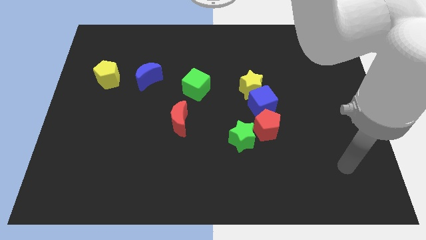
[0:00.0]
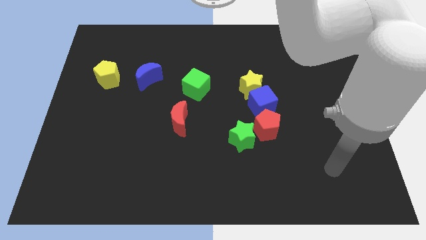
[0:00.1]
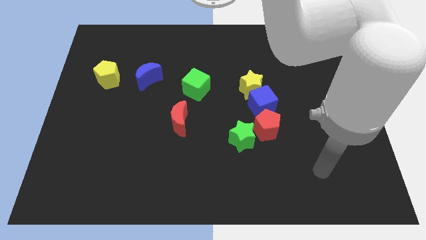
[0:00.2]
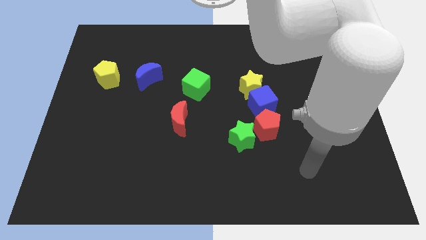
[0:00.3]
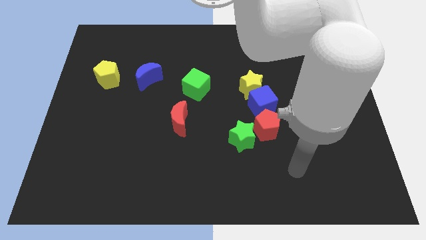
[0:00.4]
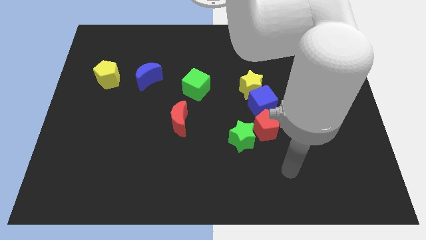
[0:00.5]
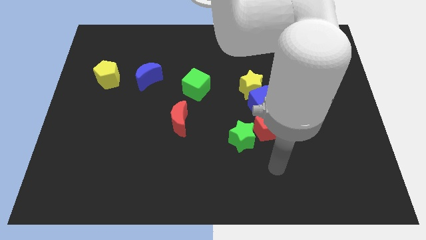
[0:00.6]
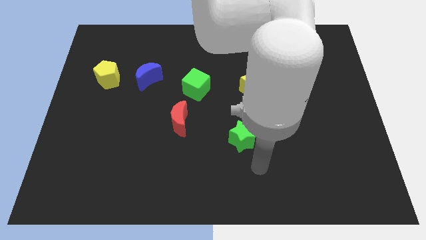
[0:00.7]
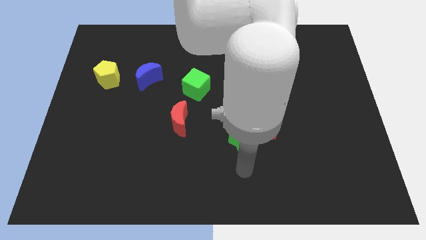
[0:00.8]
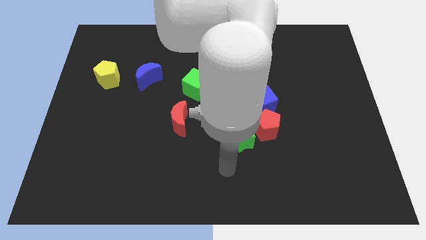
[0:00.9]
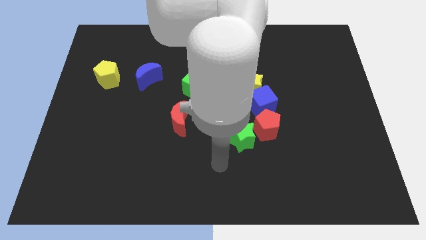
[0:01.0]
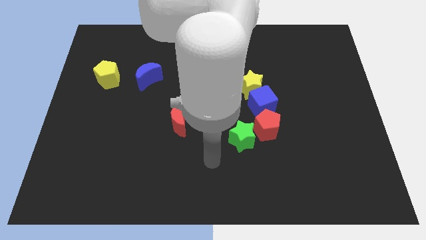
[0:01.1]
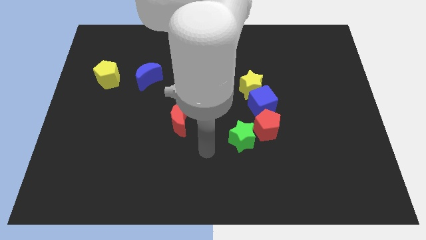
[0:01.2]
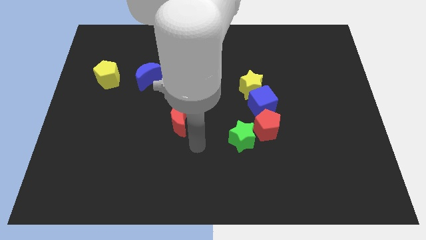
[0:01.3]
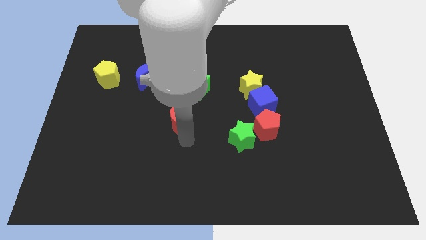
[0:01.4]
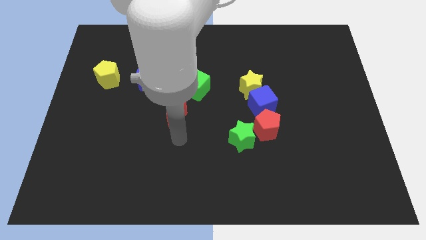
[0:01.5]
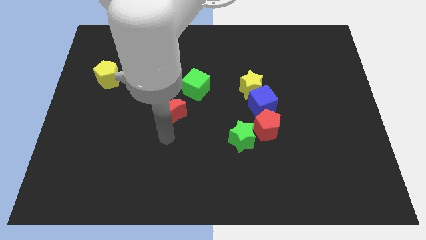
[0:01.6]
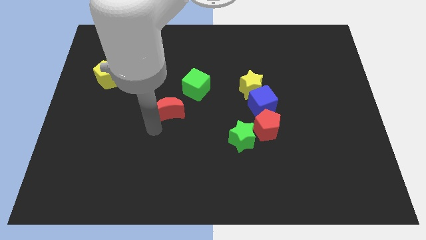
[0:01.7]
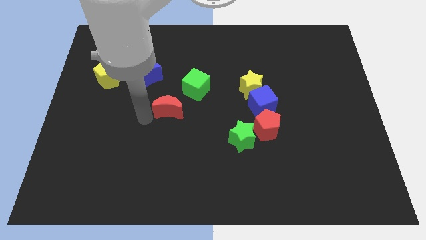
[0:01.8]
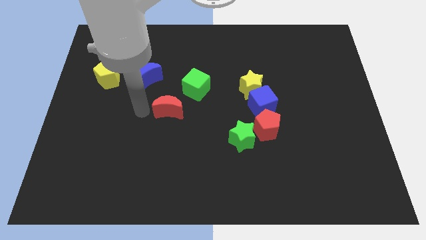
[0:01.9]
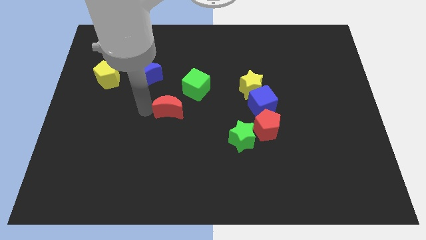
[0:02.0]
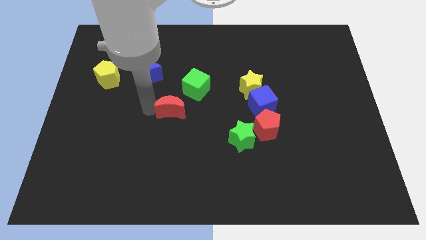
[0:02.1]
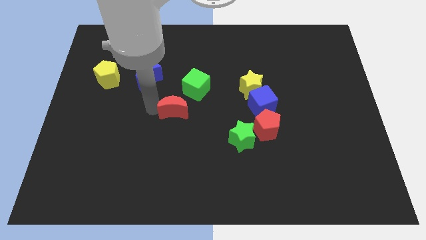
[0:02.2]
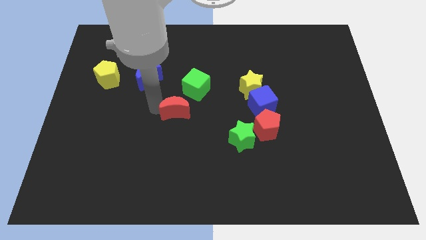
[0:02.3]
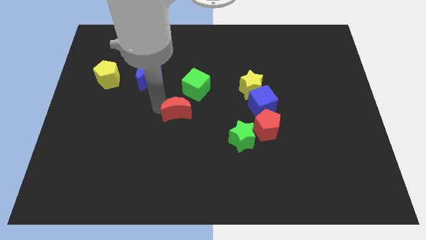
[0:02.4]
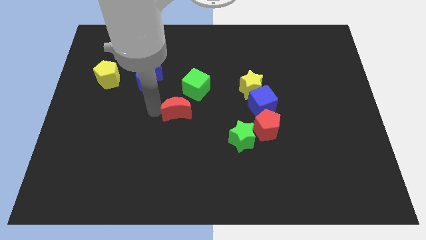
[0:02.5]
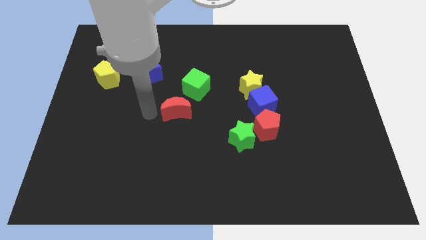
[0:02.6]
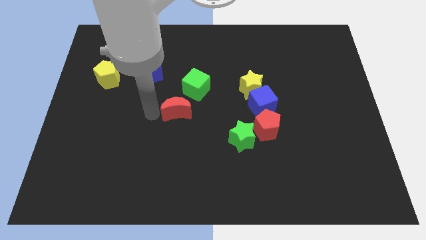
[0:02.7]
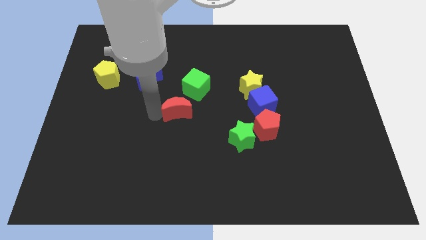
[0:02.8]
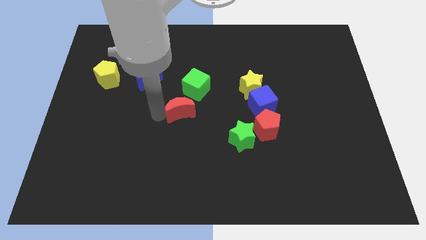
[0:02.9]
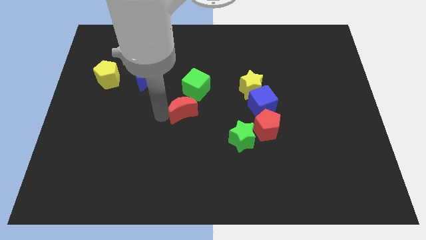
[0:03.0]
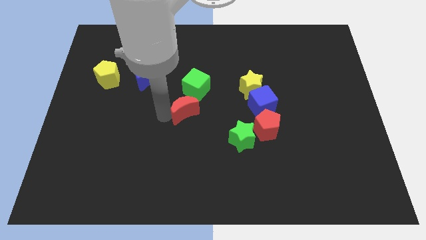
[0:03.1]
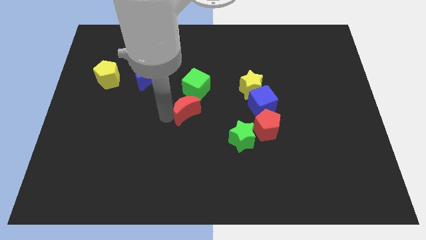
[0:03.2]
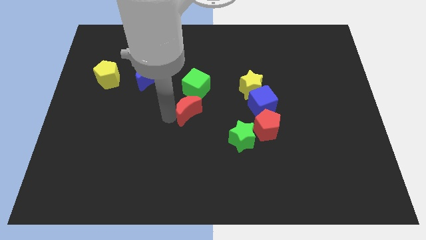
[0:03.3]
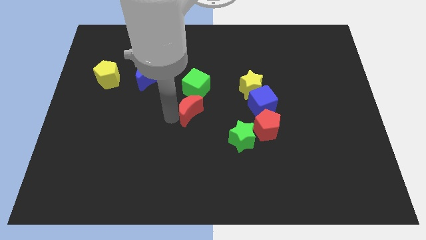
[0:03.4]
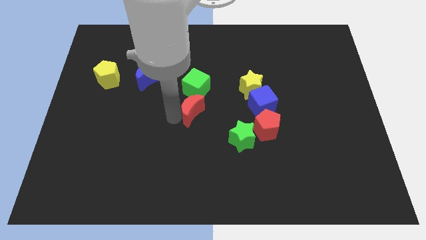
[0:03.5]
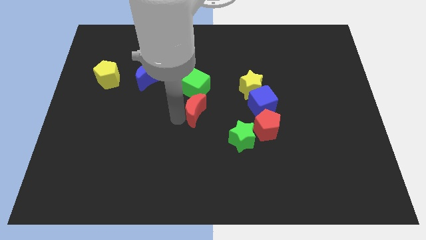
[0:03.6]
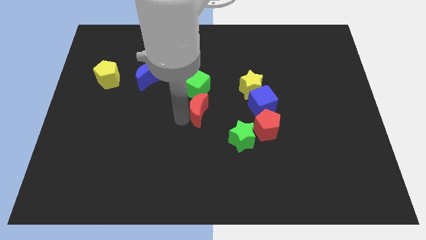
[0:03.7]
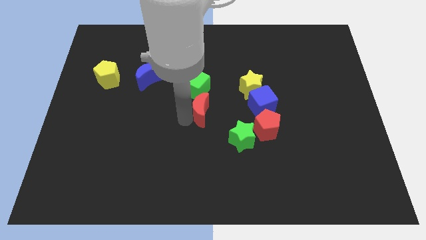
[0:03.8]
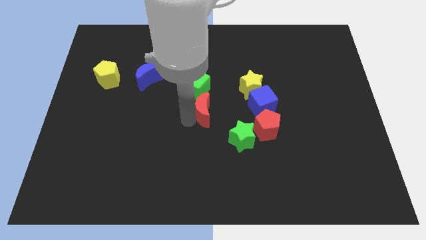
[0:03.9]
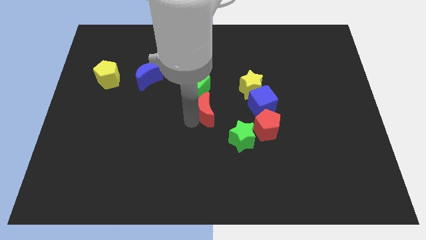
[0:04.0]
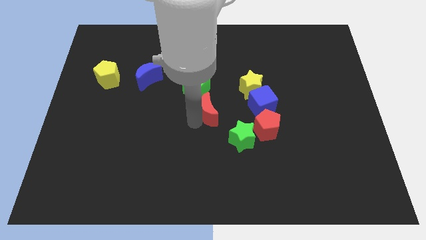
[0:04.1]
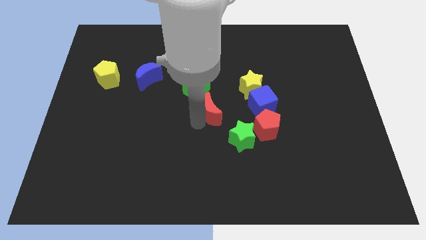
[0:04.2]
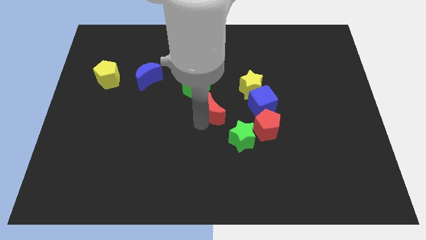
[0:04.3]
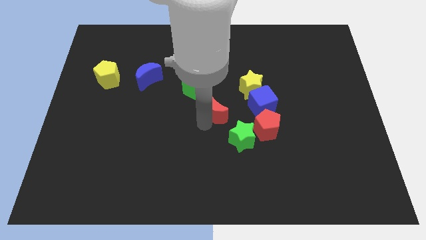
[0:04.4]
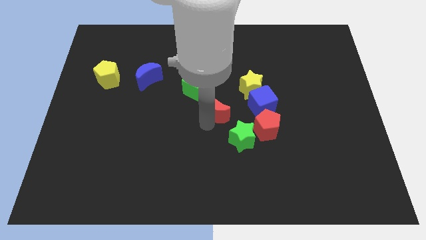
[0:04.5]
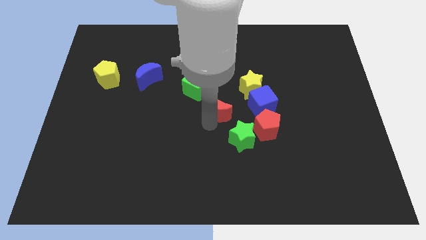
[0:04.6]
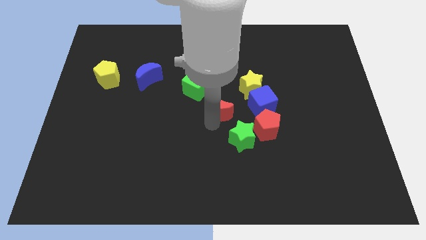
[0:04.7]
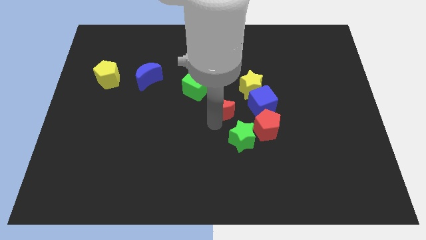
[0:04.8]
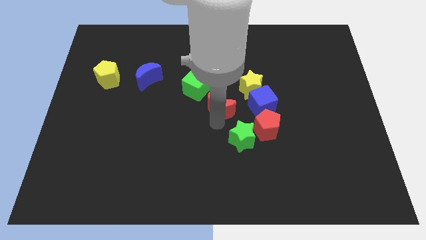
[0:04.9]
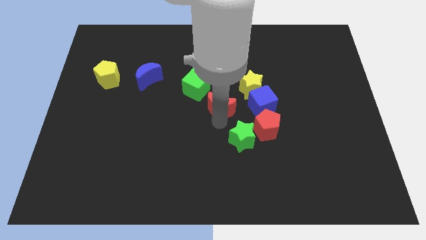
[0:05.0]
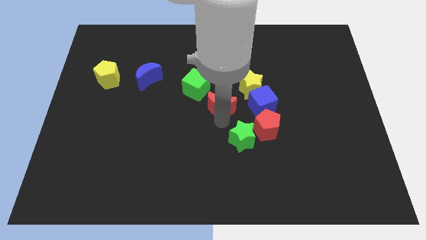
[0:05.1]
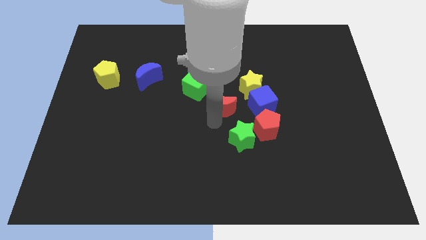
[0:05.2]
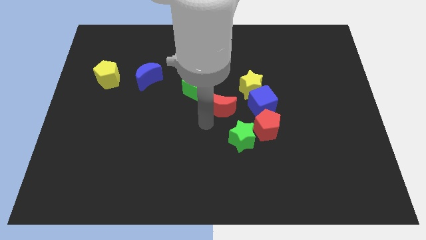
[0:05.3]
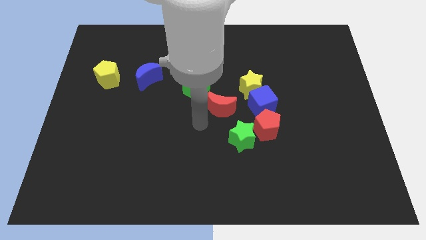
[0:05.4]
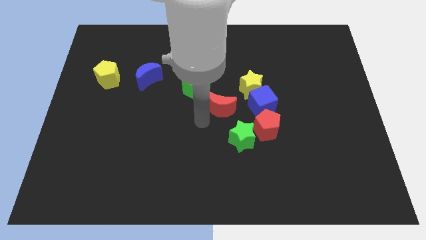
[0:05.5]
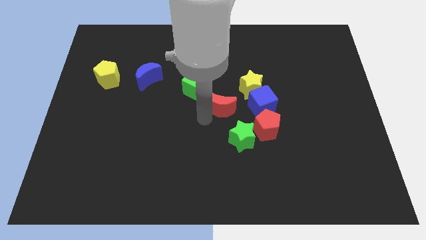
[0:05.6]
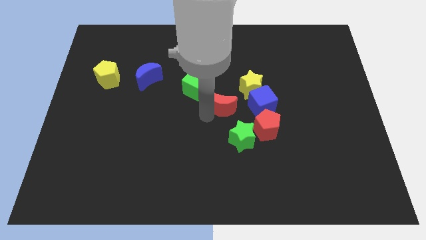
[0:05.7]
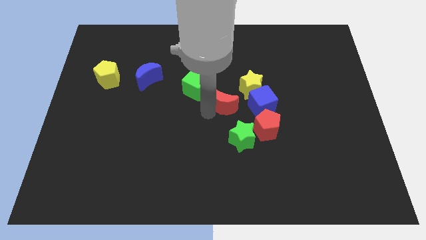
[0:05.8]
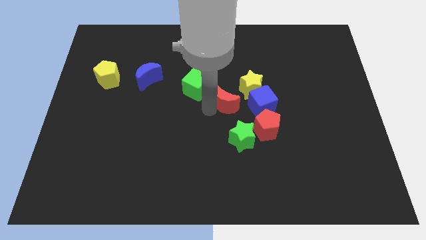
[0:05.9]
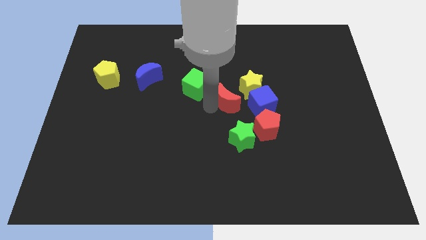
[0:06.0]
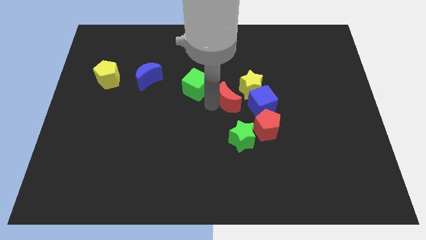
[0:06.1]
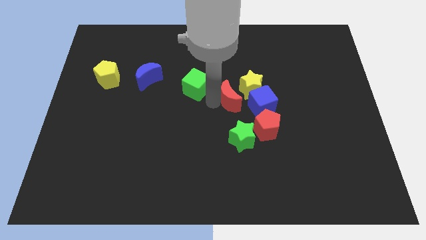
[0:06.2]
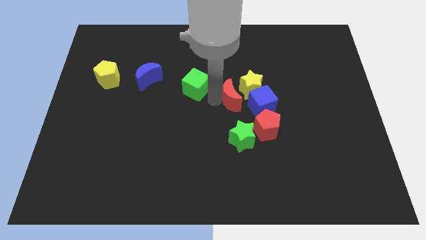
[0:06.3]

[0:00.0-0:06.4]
move the red moon towards the yellow star
